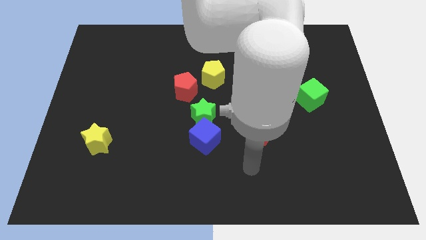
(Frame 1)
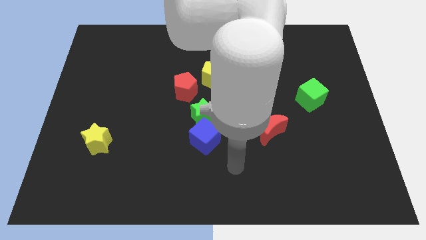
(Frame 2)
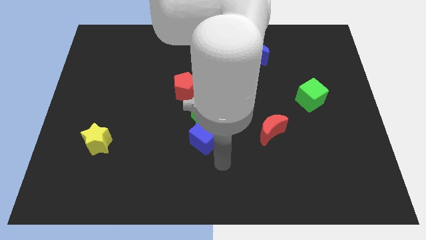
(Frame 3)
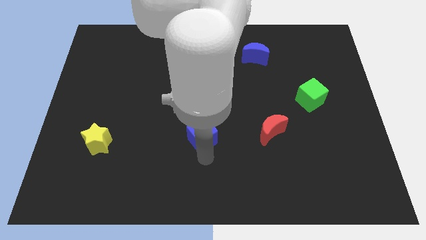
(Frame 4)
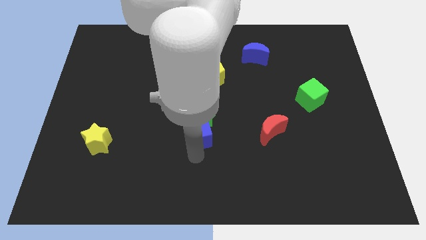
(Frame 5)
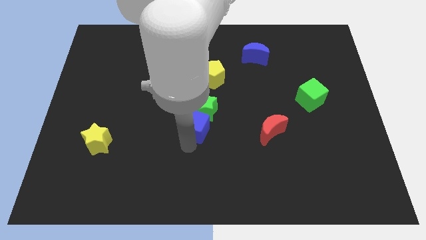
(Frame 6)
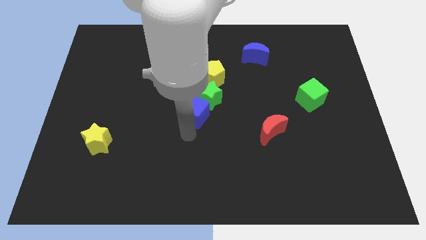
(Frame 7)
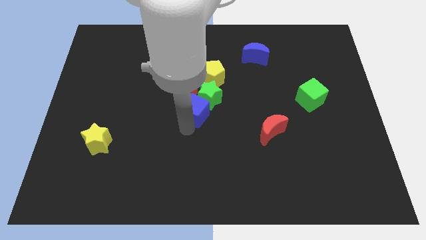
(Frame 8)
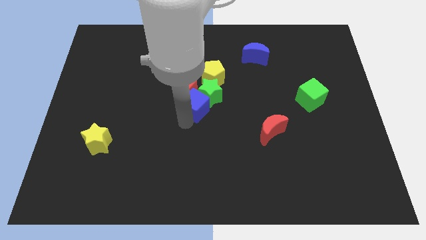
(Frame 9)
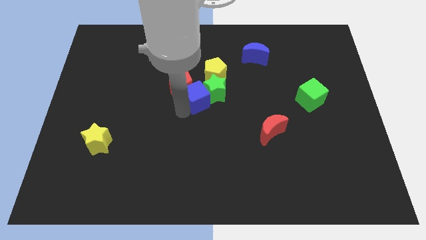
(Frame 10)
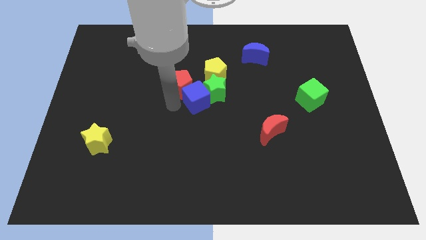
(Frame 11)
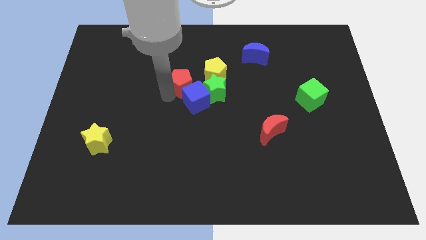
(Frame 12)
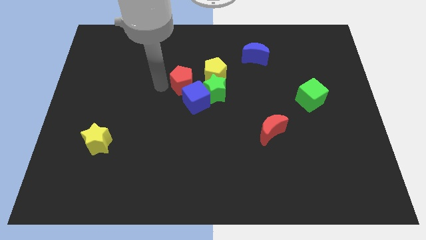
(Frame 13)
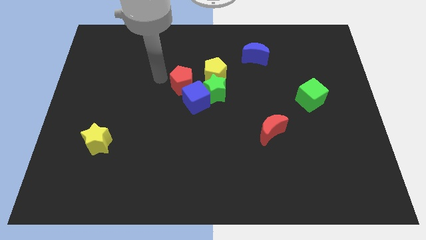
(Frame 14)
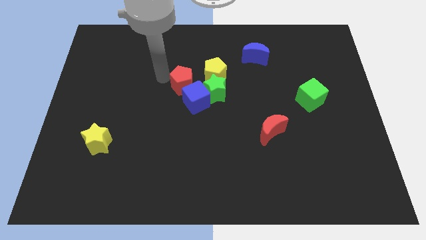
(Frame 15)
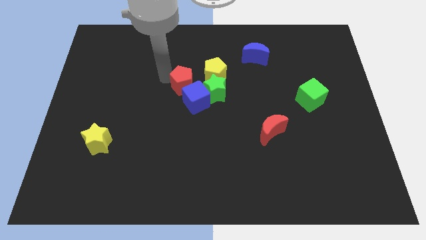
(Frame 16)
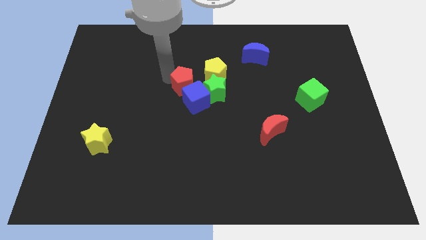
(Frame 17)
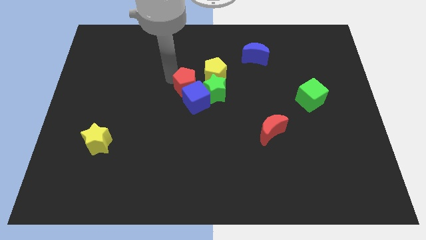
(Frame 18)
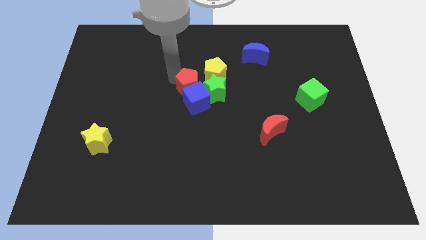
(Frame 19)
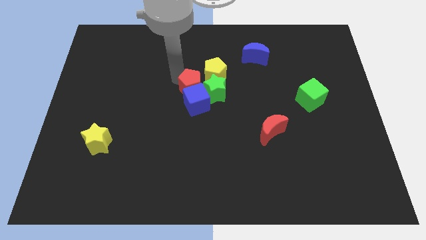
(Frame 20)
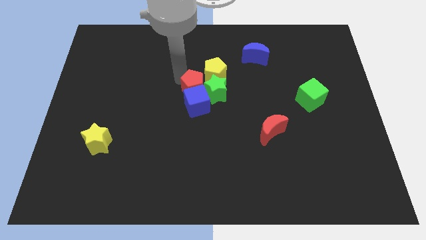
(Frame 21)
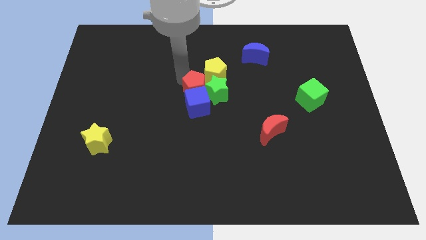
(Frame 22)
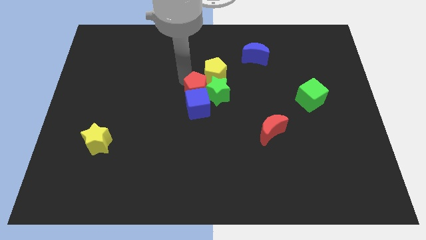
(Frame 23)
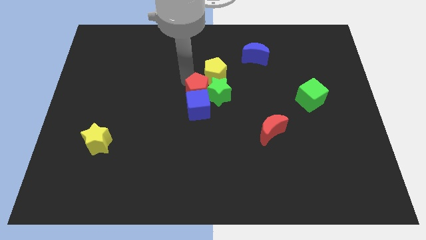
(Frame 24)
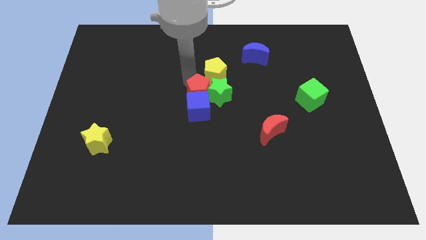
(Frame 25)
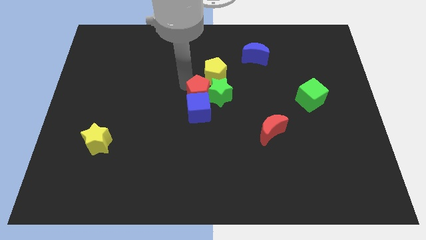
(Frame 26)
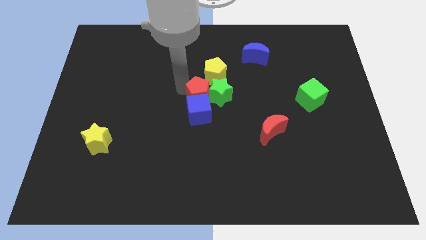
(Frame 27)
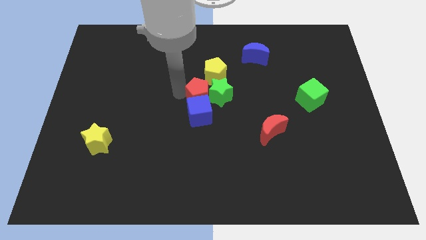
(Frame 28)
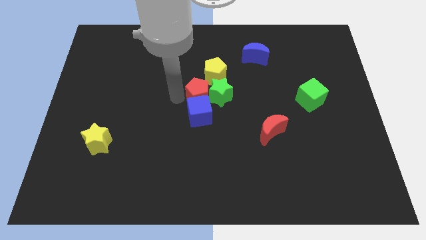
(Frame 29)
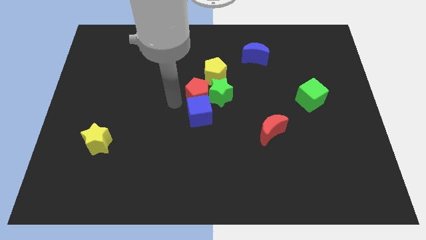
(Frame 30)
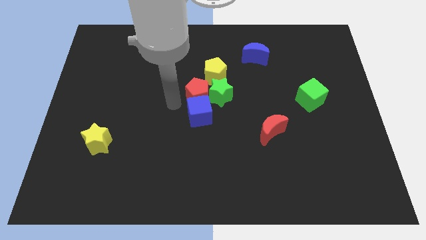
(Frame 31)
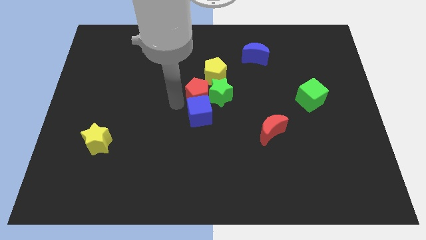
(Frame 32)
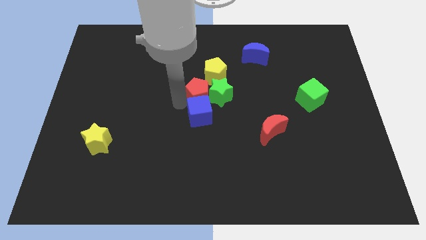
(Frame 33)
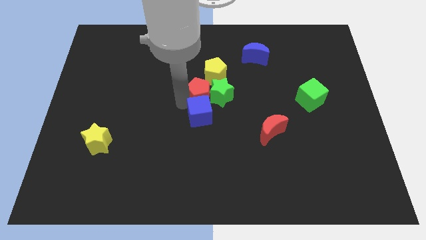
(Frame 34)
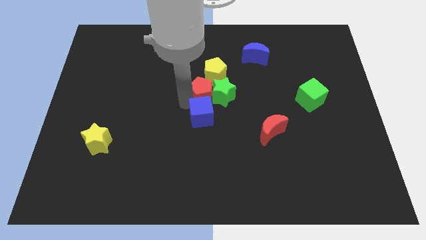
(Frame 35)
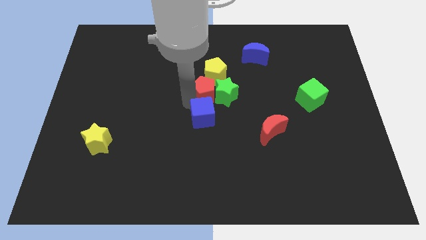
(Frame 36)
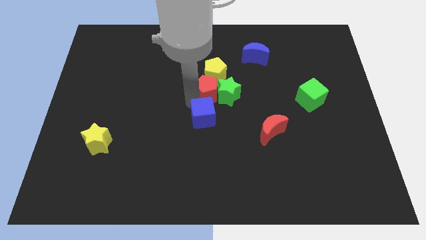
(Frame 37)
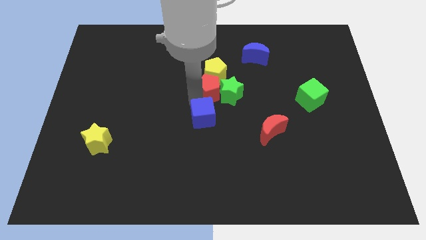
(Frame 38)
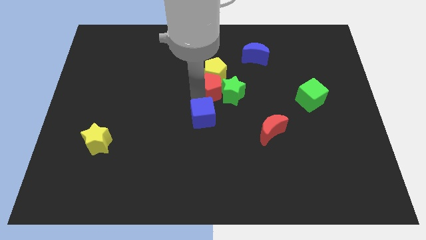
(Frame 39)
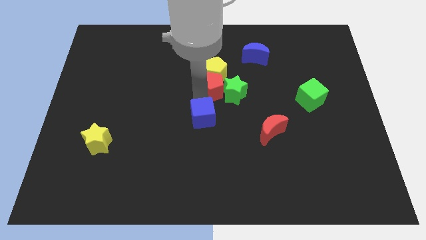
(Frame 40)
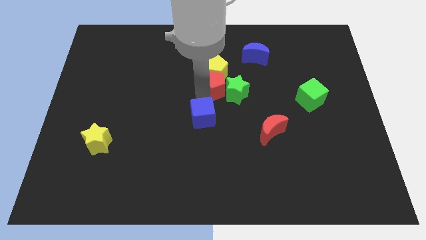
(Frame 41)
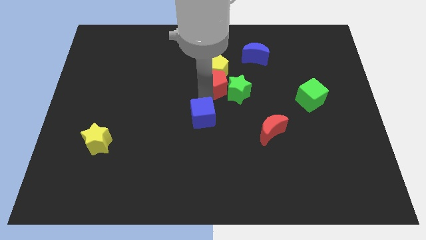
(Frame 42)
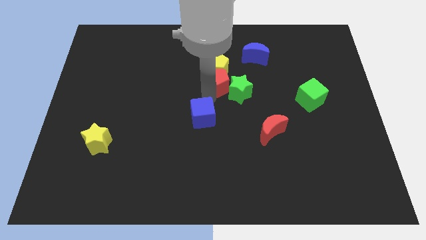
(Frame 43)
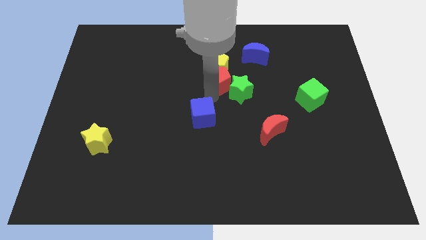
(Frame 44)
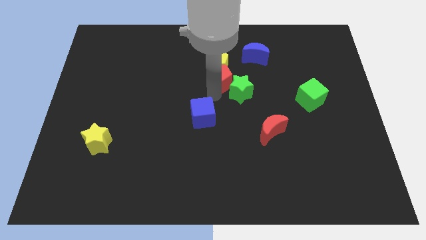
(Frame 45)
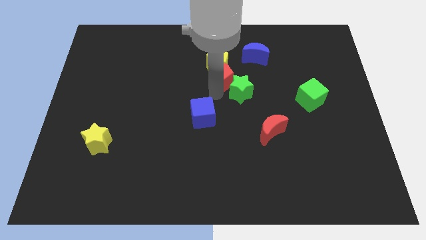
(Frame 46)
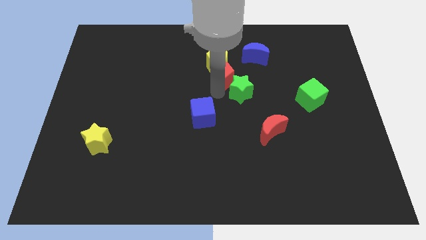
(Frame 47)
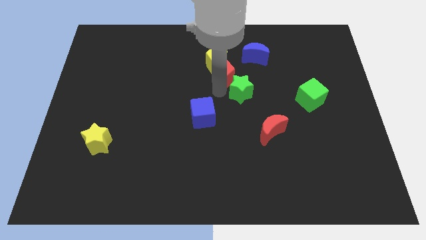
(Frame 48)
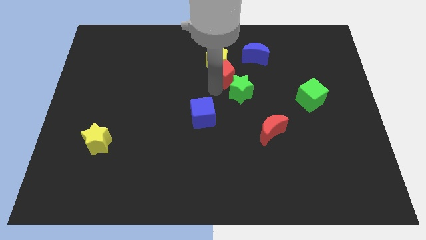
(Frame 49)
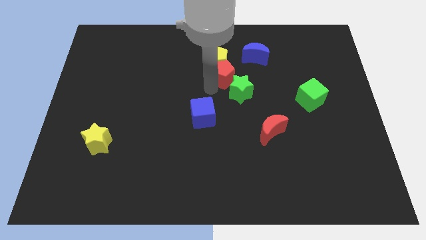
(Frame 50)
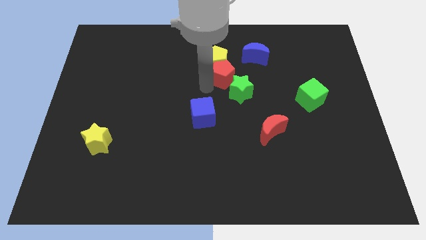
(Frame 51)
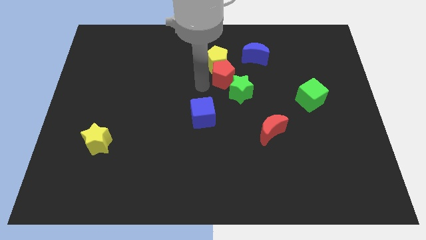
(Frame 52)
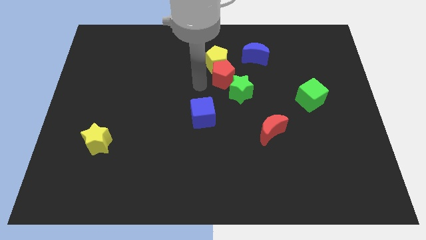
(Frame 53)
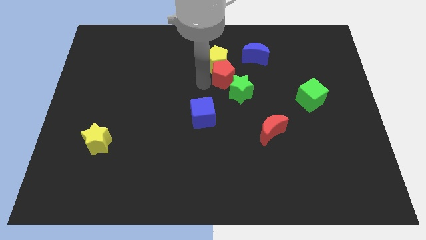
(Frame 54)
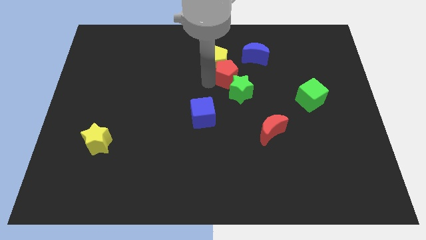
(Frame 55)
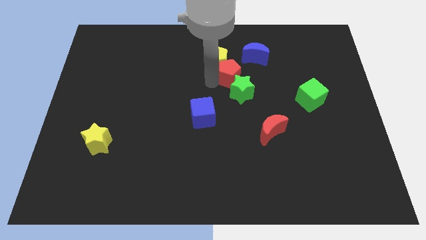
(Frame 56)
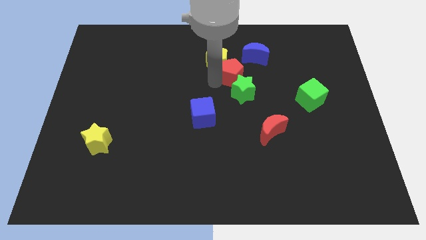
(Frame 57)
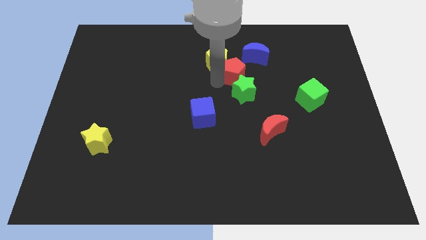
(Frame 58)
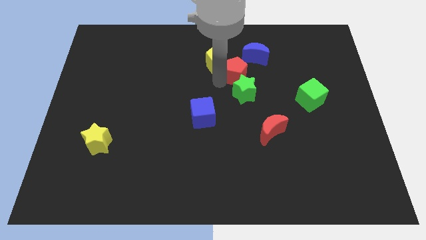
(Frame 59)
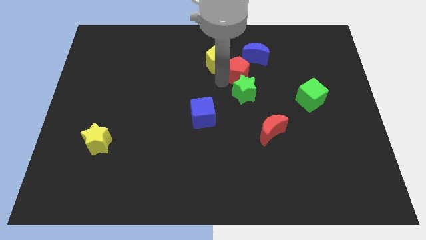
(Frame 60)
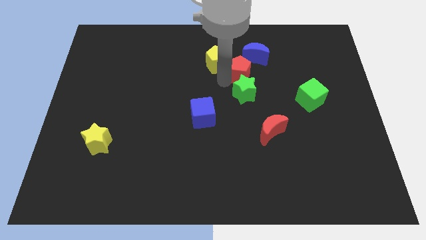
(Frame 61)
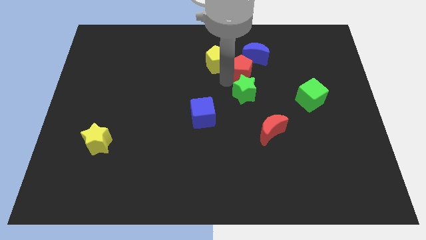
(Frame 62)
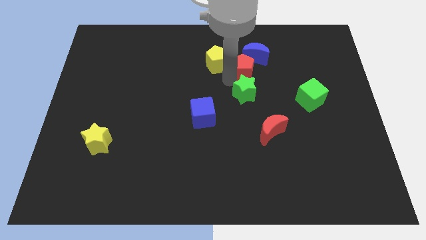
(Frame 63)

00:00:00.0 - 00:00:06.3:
slide the red pentagon next to the blue moon
